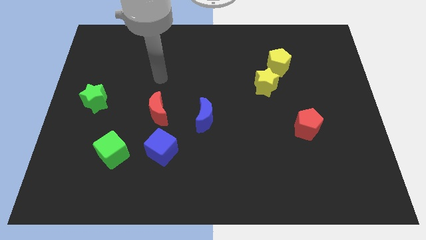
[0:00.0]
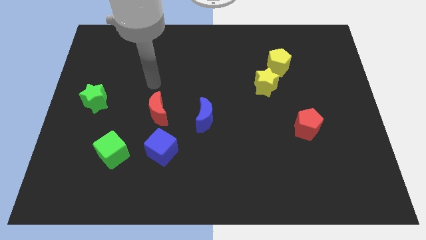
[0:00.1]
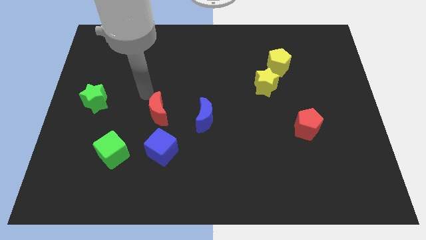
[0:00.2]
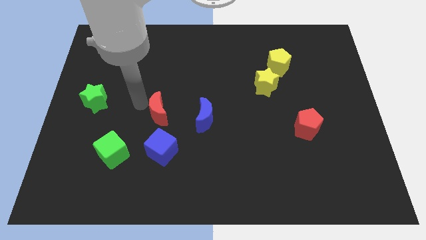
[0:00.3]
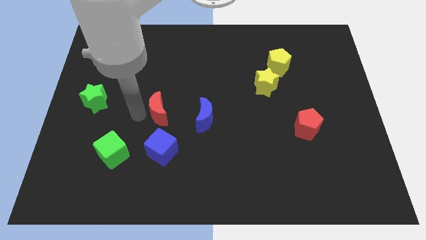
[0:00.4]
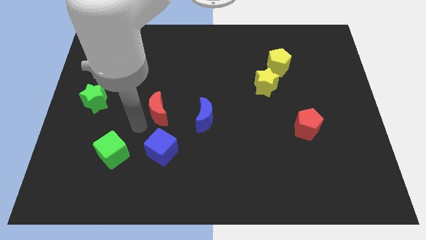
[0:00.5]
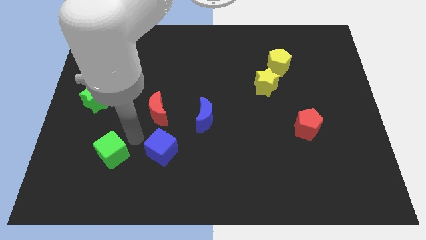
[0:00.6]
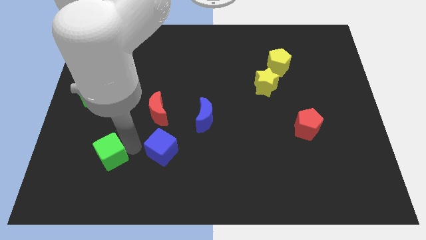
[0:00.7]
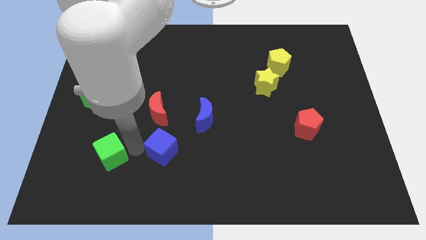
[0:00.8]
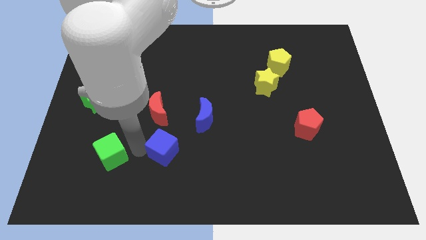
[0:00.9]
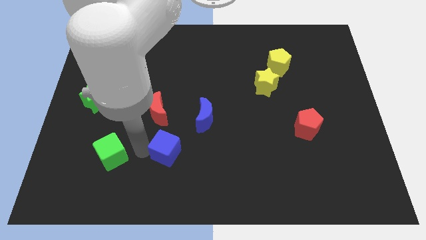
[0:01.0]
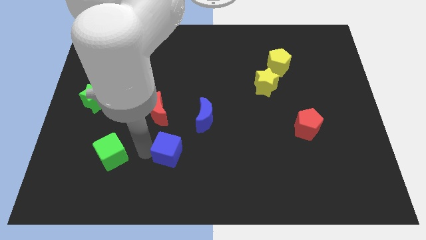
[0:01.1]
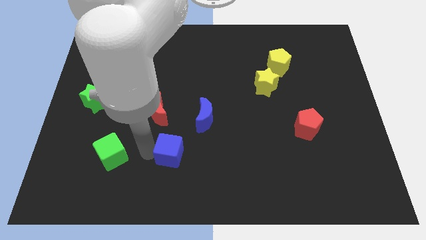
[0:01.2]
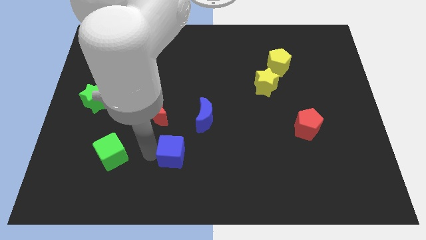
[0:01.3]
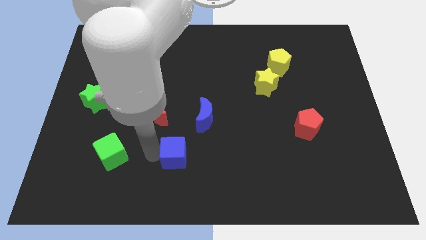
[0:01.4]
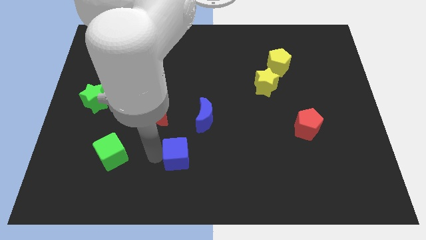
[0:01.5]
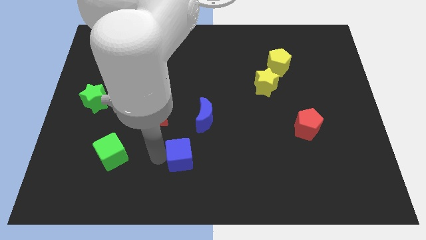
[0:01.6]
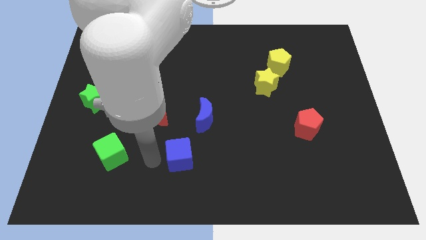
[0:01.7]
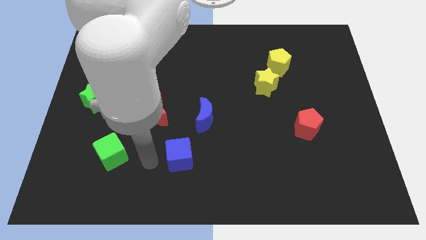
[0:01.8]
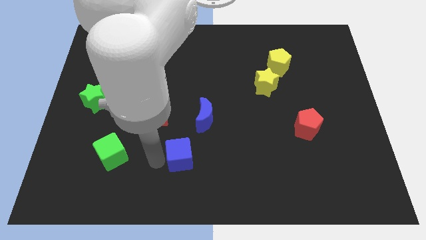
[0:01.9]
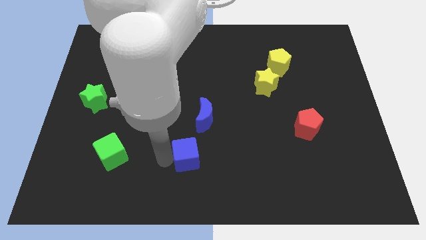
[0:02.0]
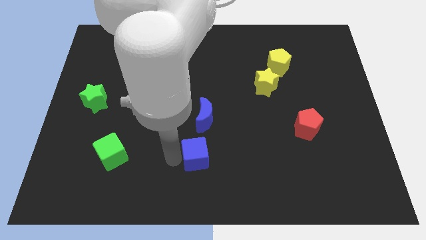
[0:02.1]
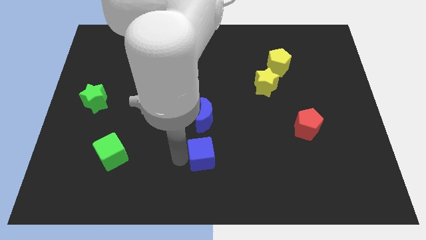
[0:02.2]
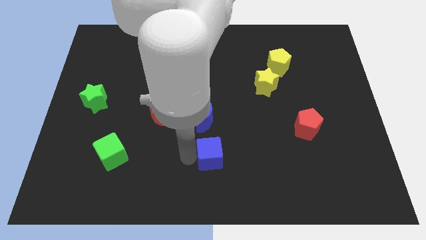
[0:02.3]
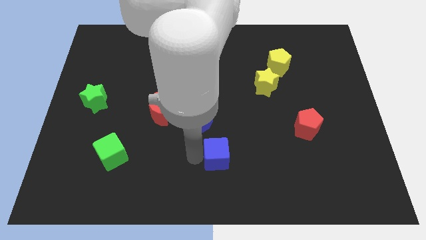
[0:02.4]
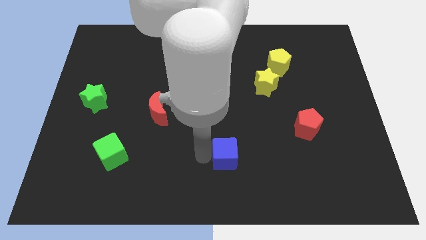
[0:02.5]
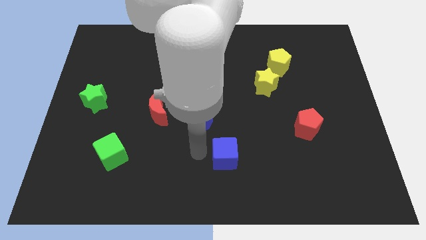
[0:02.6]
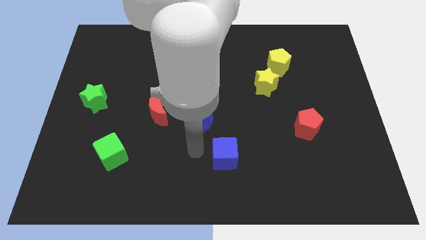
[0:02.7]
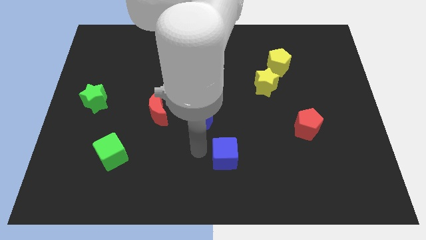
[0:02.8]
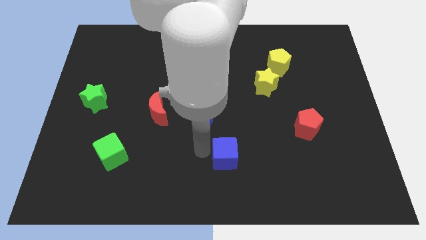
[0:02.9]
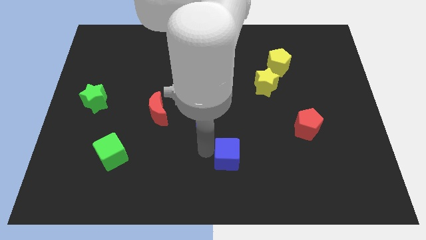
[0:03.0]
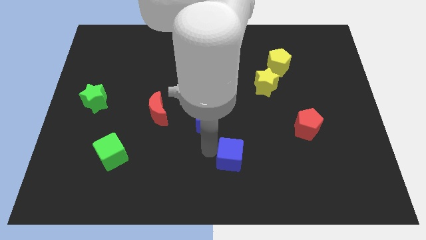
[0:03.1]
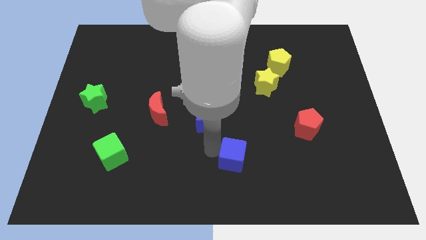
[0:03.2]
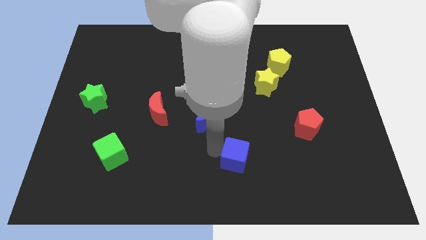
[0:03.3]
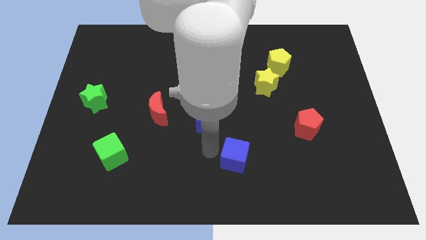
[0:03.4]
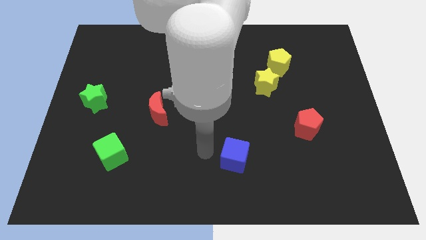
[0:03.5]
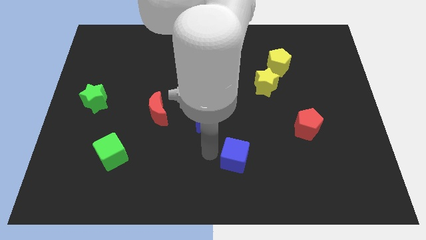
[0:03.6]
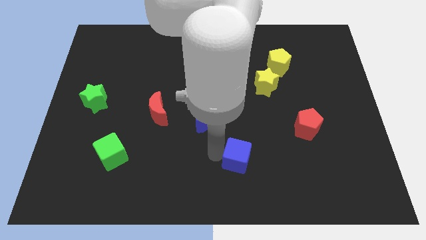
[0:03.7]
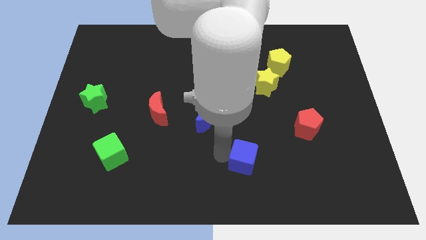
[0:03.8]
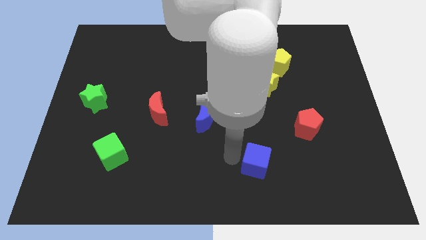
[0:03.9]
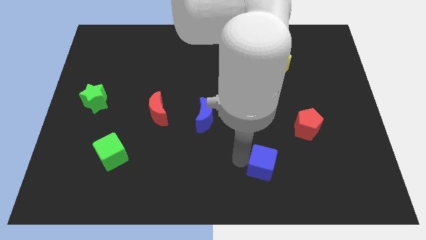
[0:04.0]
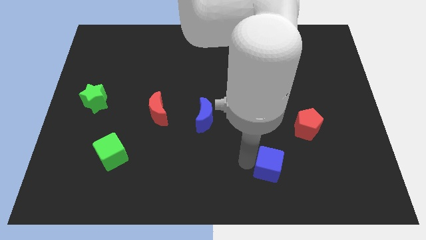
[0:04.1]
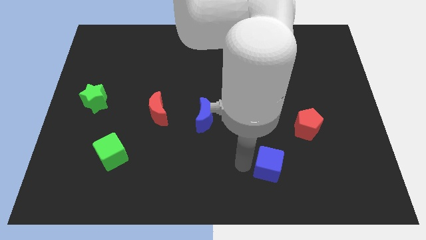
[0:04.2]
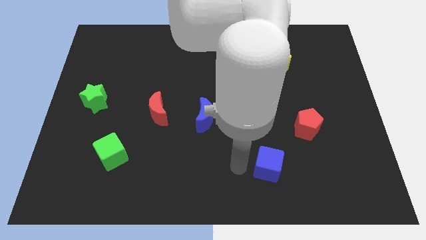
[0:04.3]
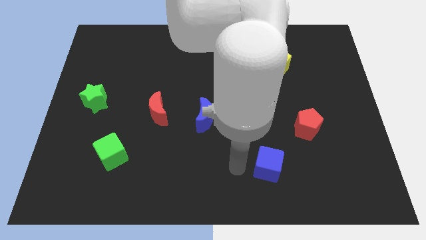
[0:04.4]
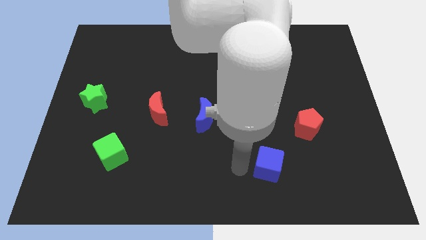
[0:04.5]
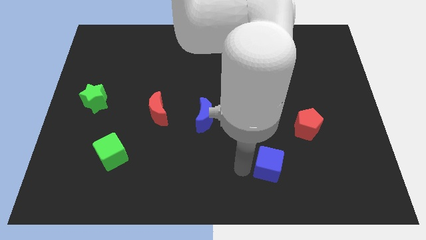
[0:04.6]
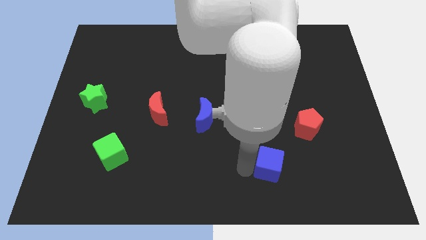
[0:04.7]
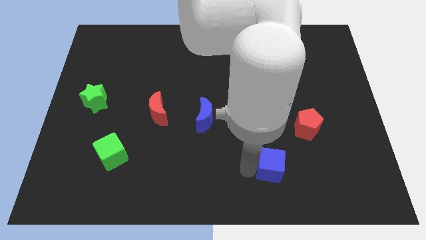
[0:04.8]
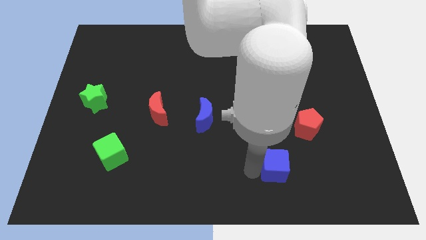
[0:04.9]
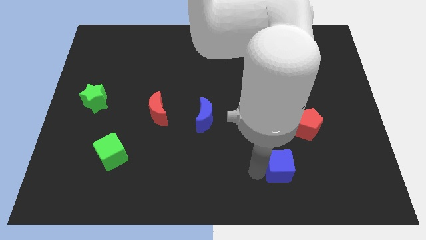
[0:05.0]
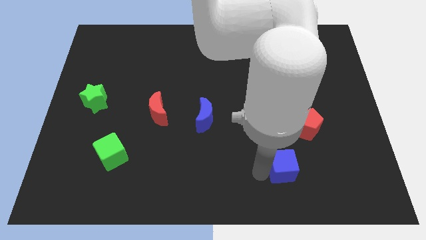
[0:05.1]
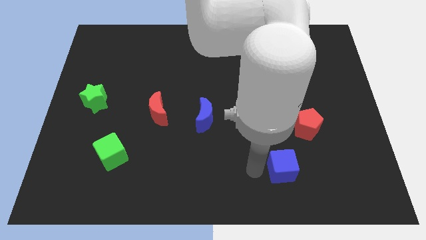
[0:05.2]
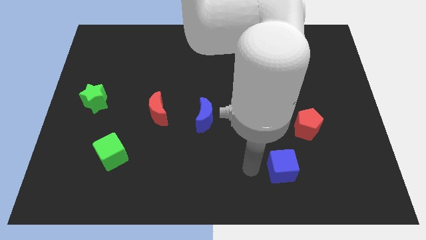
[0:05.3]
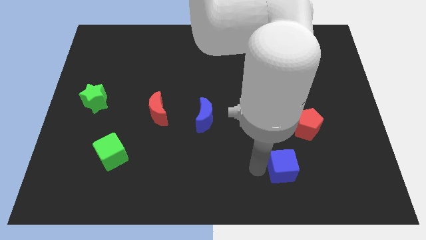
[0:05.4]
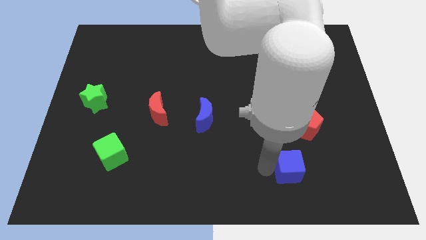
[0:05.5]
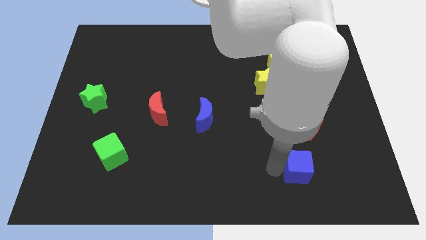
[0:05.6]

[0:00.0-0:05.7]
put the blue cube to the bottom of the red pentagon
